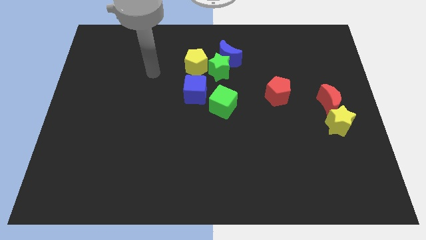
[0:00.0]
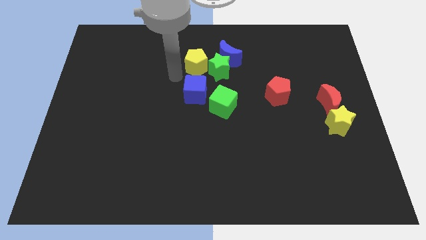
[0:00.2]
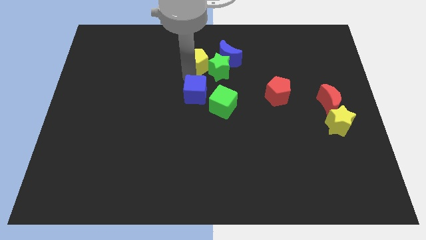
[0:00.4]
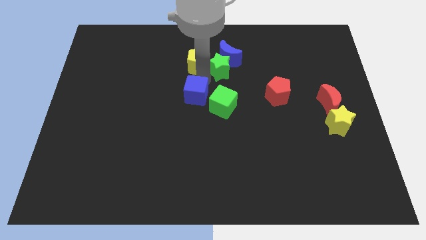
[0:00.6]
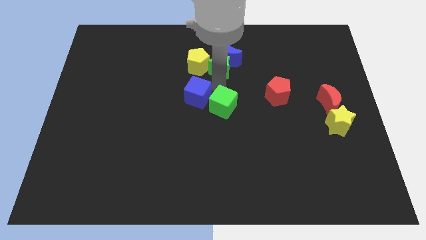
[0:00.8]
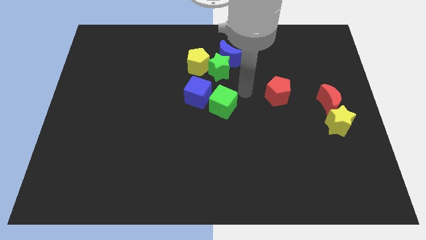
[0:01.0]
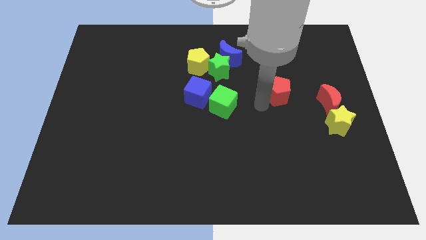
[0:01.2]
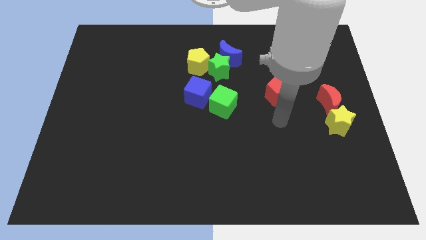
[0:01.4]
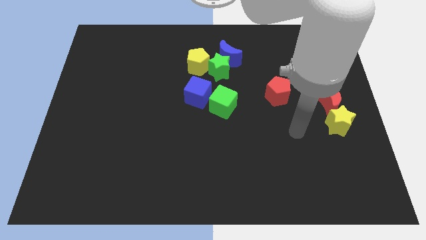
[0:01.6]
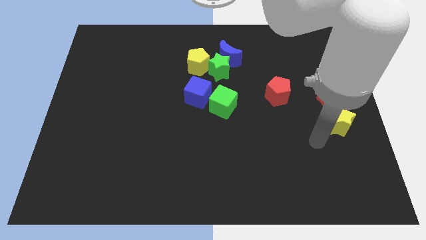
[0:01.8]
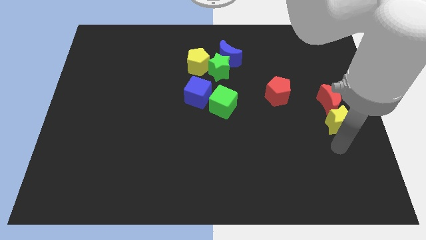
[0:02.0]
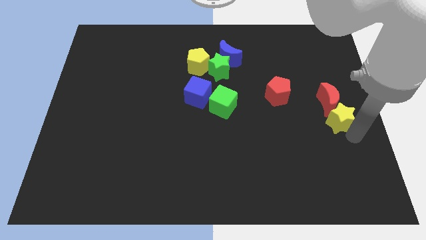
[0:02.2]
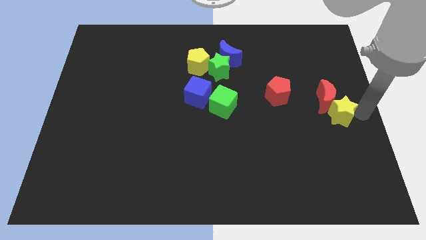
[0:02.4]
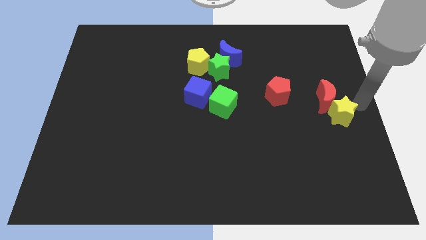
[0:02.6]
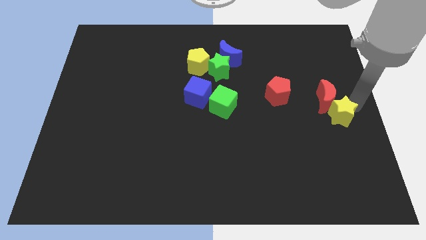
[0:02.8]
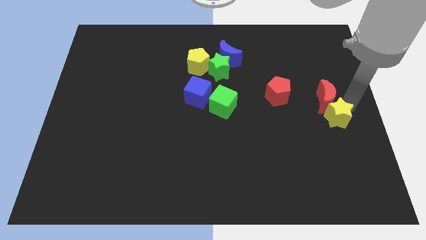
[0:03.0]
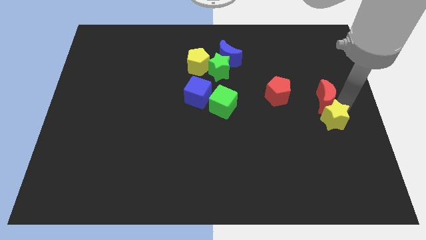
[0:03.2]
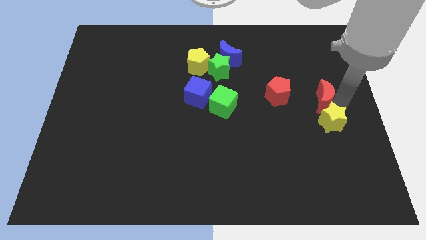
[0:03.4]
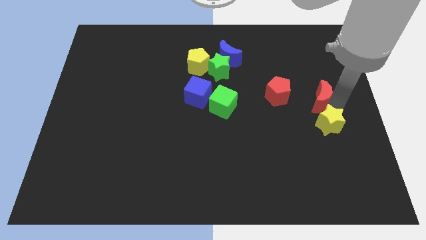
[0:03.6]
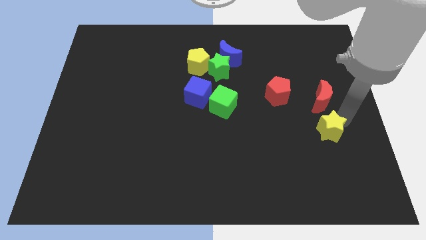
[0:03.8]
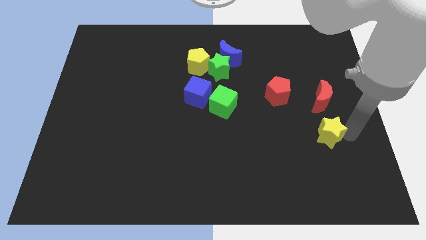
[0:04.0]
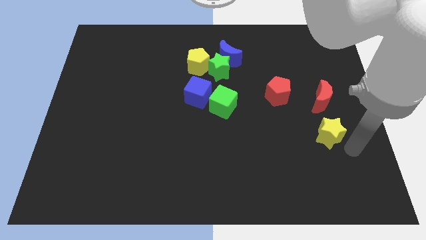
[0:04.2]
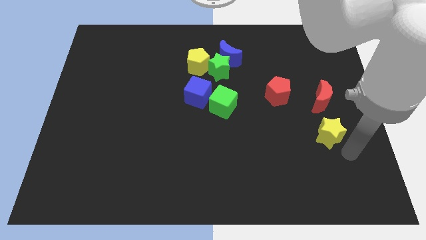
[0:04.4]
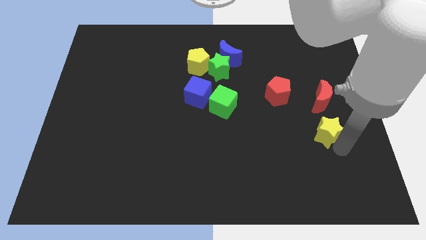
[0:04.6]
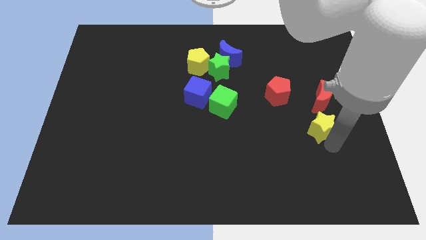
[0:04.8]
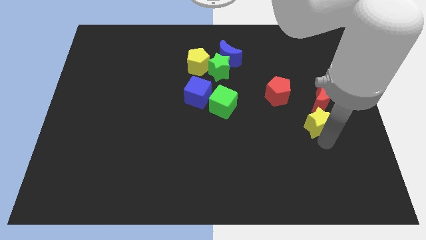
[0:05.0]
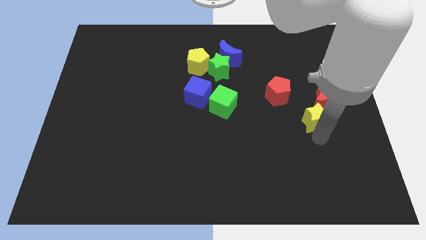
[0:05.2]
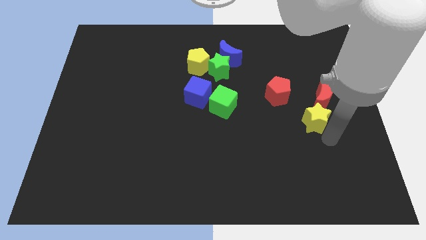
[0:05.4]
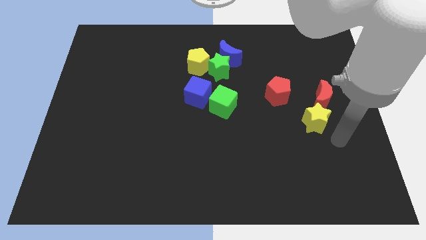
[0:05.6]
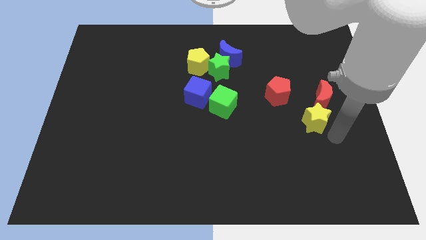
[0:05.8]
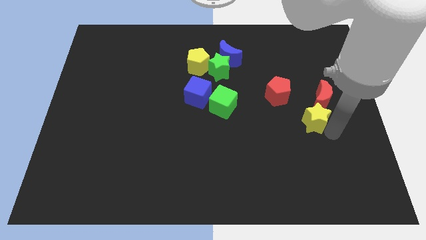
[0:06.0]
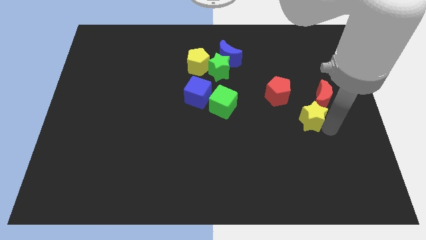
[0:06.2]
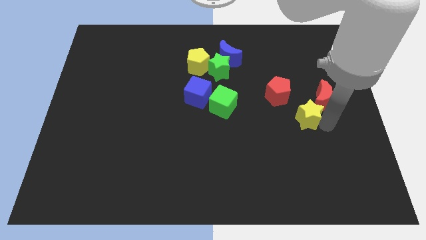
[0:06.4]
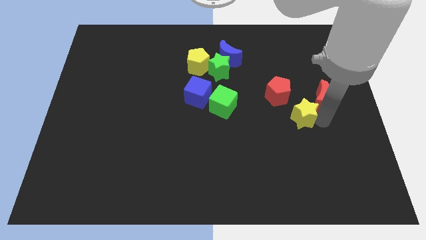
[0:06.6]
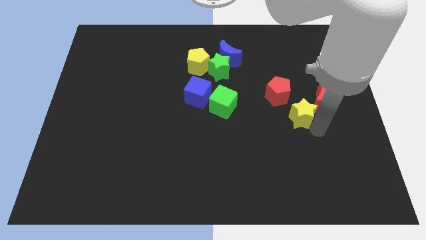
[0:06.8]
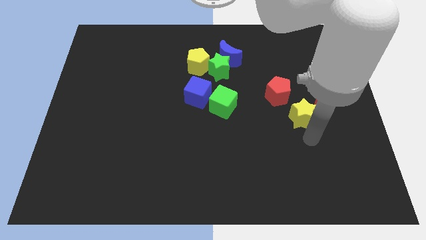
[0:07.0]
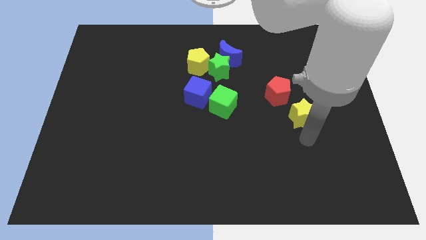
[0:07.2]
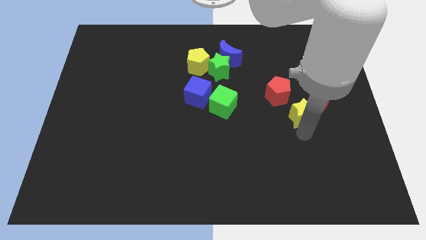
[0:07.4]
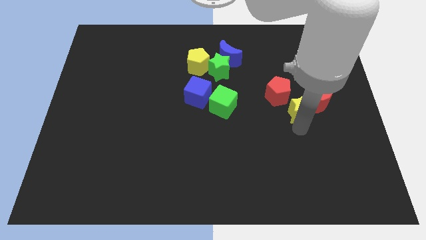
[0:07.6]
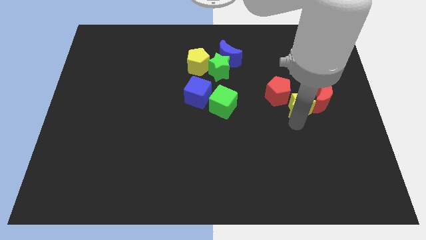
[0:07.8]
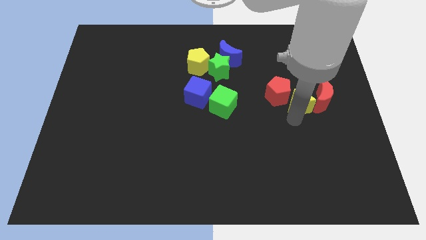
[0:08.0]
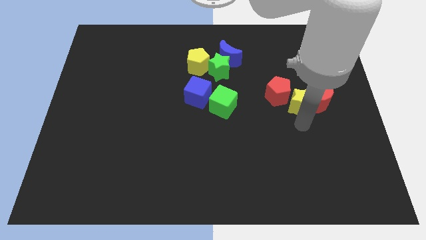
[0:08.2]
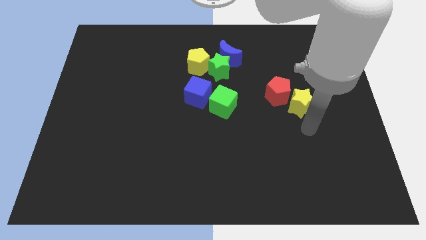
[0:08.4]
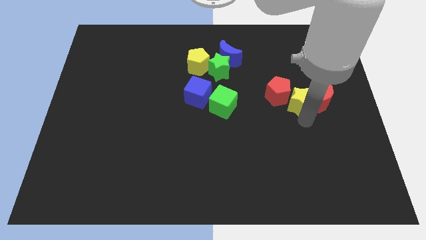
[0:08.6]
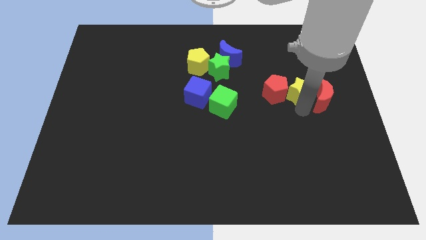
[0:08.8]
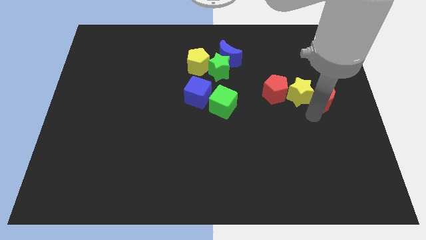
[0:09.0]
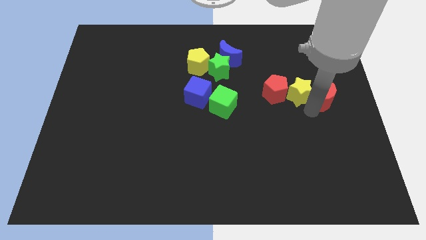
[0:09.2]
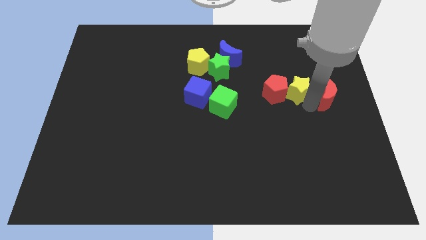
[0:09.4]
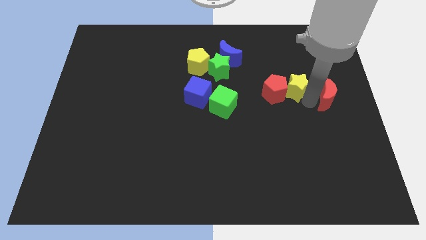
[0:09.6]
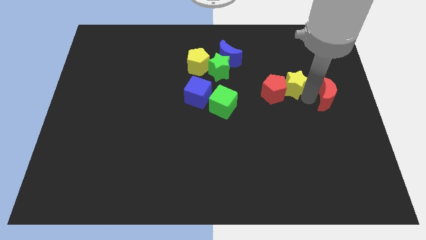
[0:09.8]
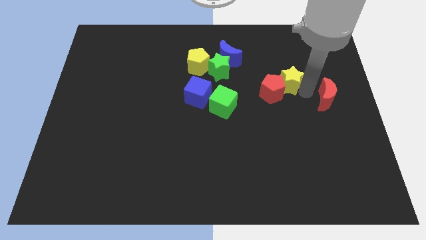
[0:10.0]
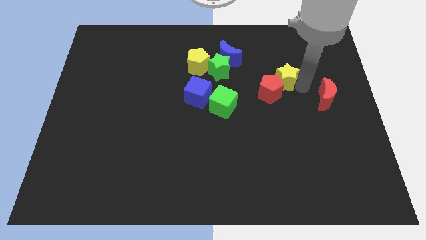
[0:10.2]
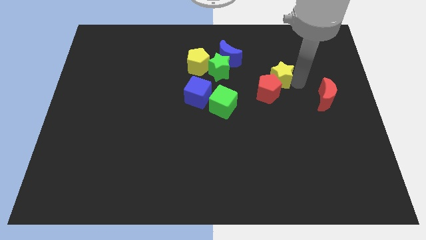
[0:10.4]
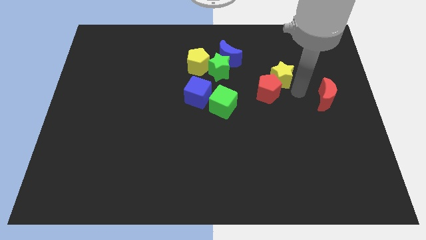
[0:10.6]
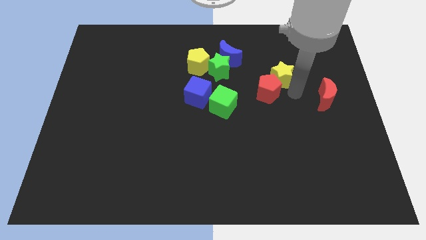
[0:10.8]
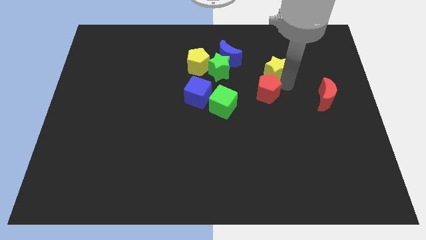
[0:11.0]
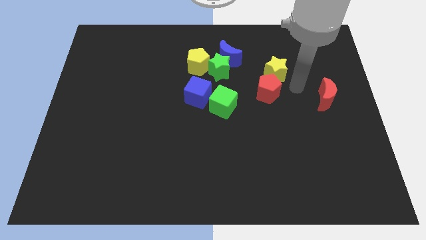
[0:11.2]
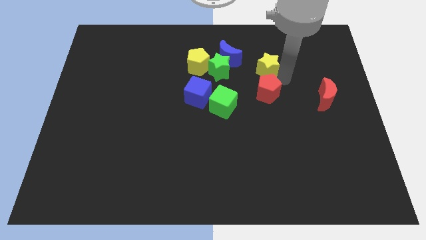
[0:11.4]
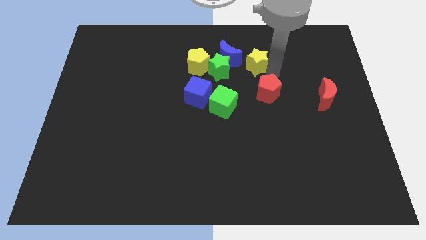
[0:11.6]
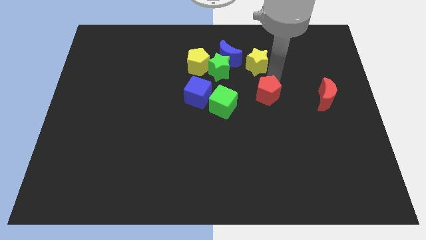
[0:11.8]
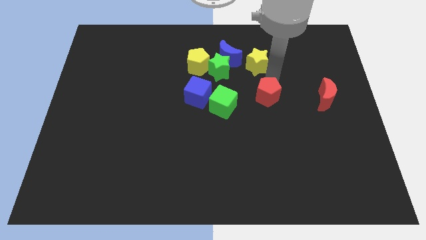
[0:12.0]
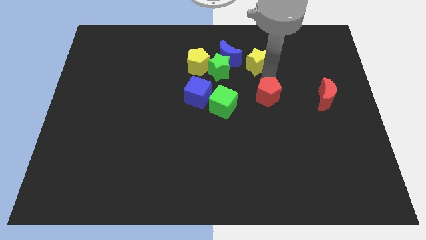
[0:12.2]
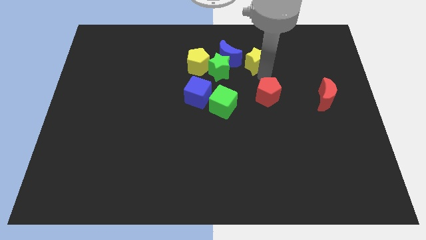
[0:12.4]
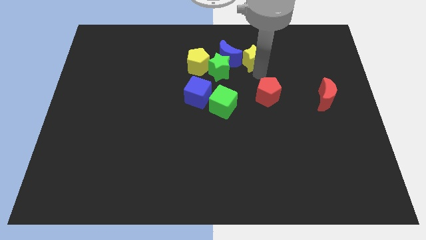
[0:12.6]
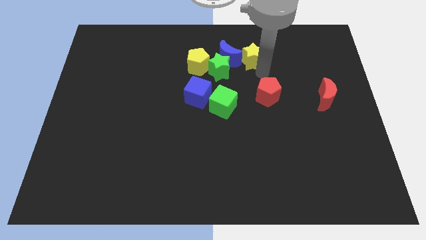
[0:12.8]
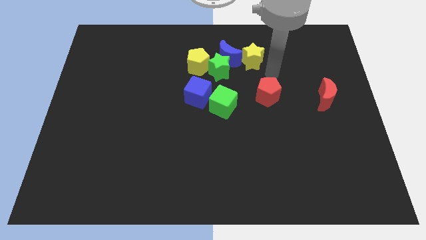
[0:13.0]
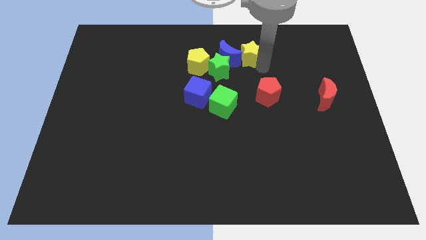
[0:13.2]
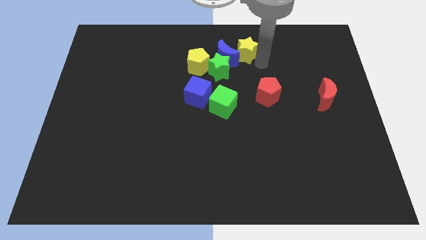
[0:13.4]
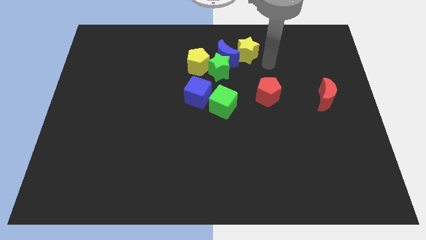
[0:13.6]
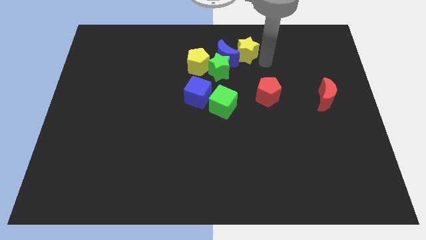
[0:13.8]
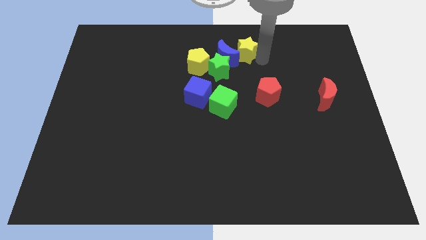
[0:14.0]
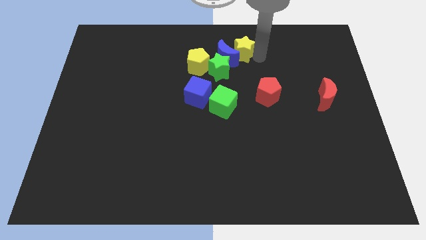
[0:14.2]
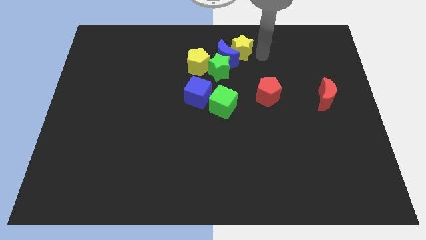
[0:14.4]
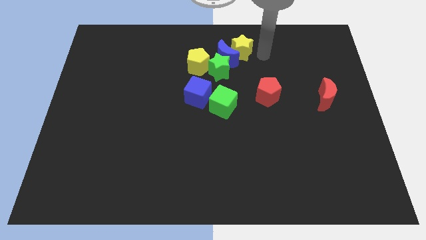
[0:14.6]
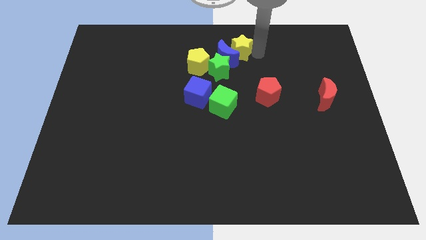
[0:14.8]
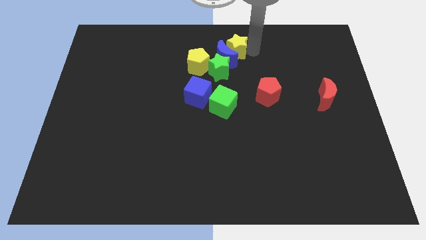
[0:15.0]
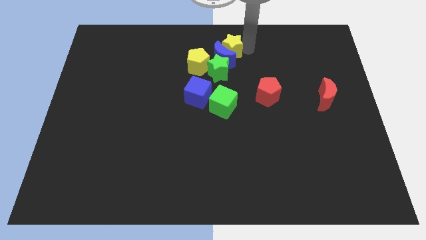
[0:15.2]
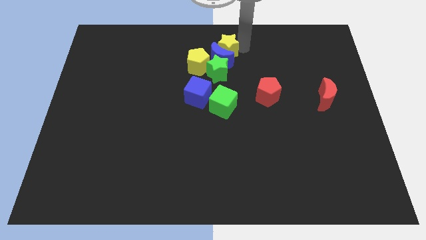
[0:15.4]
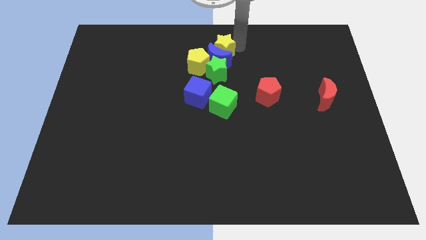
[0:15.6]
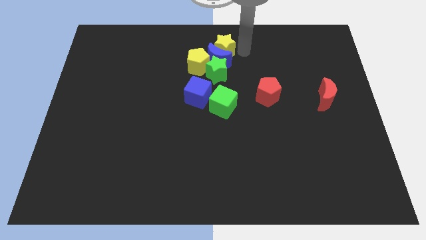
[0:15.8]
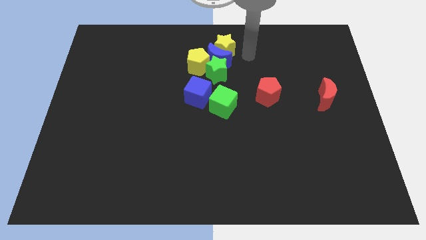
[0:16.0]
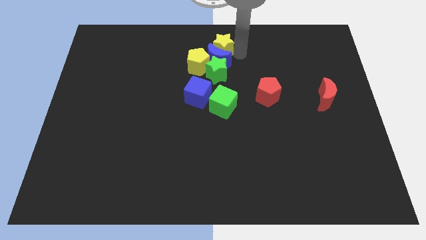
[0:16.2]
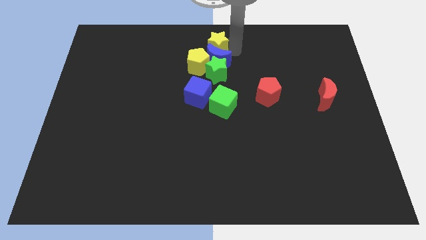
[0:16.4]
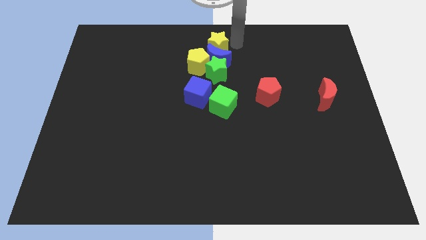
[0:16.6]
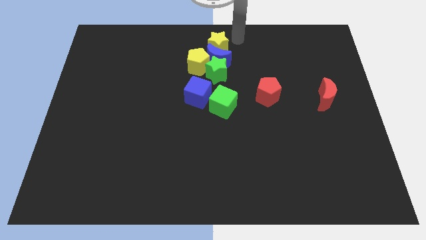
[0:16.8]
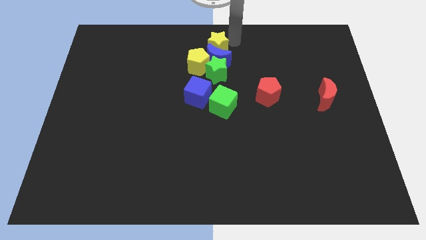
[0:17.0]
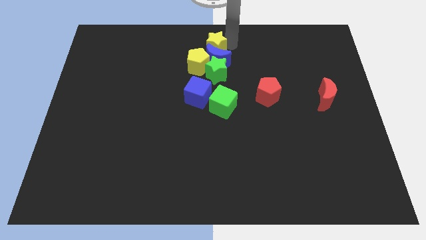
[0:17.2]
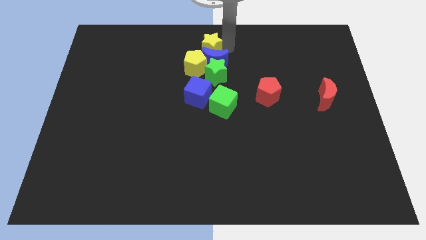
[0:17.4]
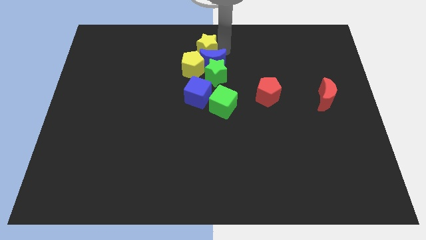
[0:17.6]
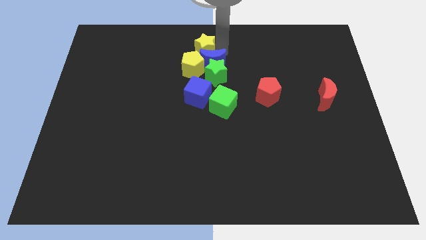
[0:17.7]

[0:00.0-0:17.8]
move the yellow star diagonally up and to the left of the green star
